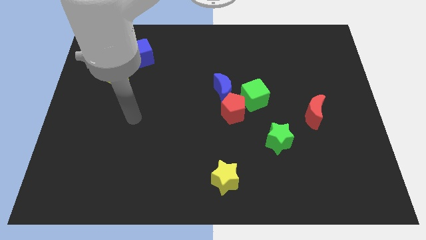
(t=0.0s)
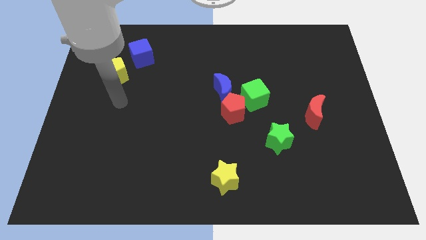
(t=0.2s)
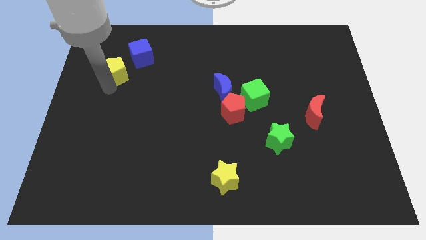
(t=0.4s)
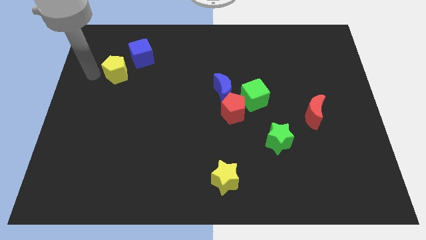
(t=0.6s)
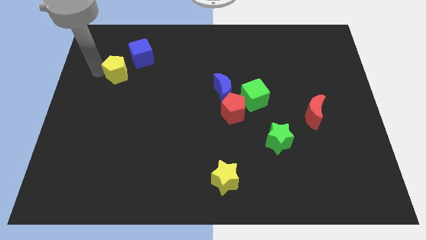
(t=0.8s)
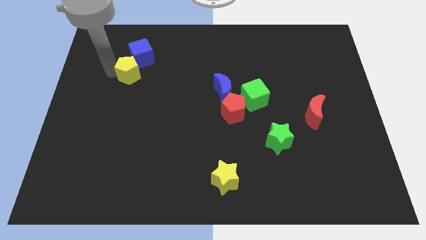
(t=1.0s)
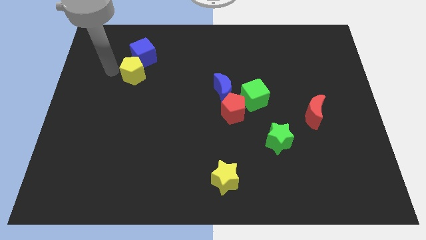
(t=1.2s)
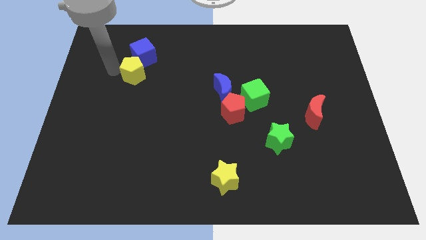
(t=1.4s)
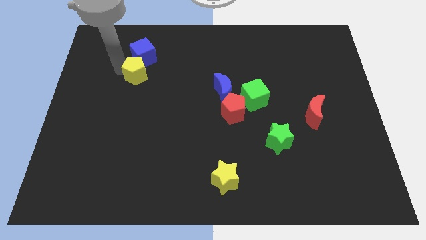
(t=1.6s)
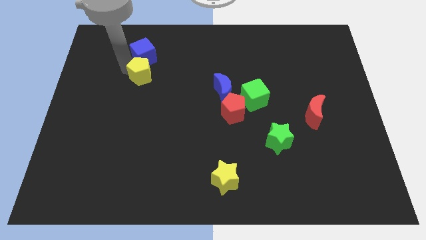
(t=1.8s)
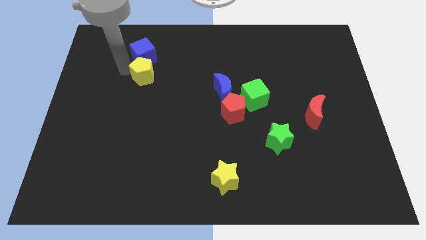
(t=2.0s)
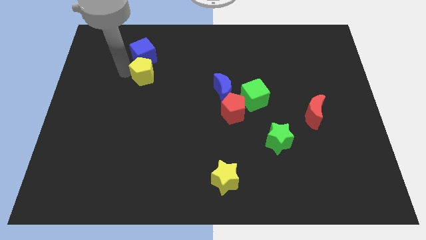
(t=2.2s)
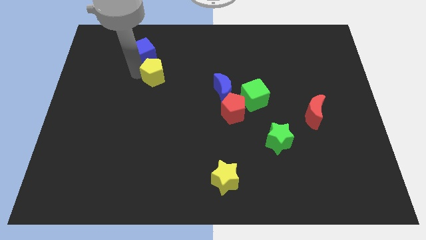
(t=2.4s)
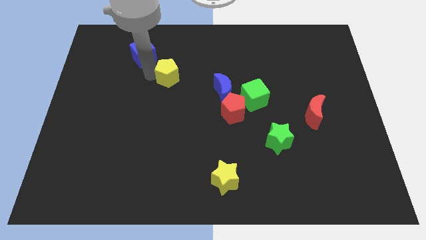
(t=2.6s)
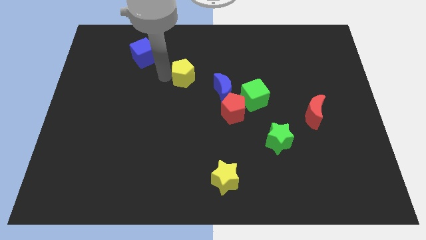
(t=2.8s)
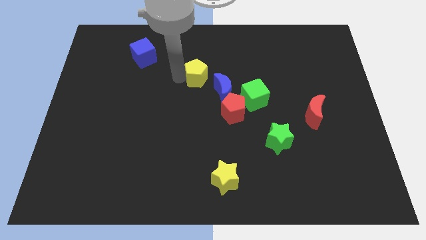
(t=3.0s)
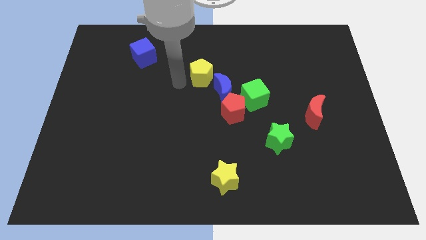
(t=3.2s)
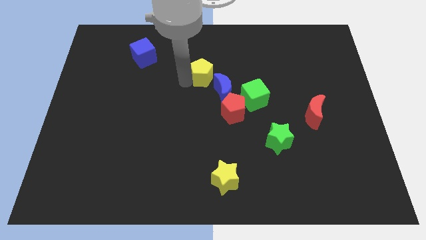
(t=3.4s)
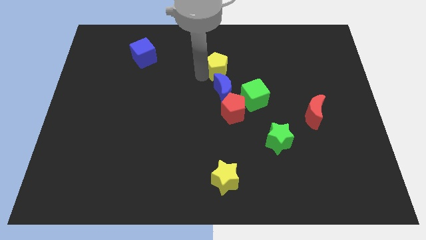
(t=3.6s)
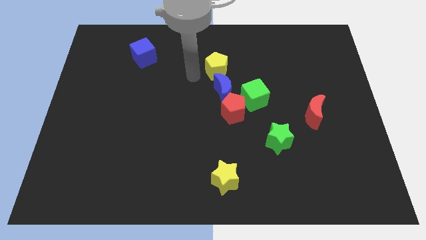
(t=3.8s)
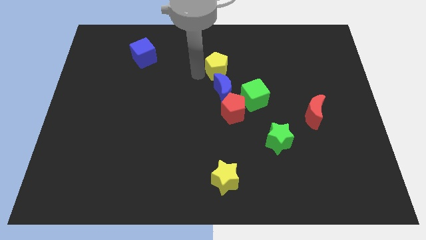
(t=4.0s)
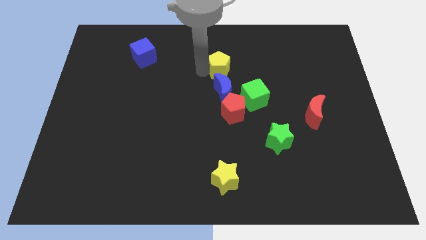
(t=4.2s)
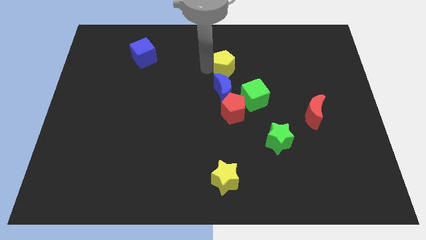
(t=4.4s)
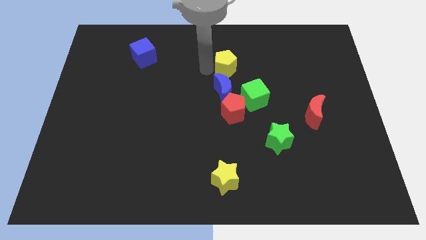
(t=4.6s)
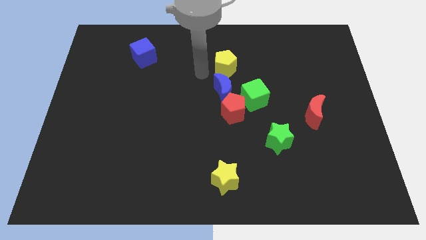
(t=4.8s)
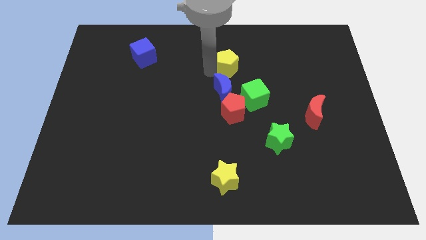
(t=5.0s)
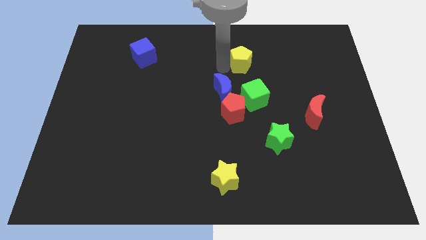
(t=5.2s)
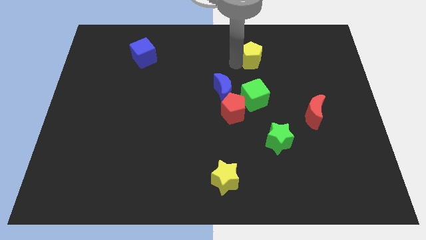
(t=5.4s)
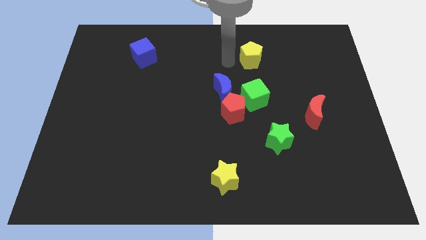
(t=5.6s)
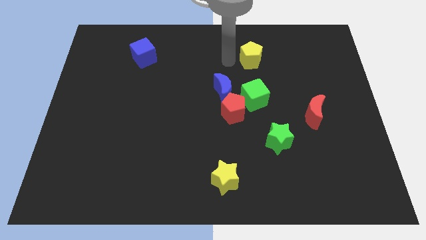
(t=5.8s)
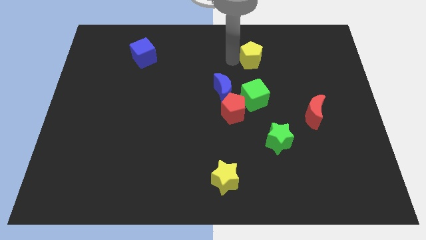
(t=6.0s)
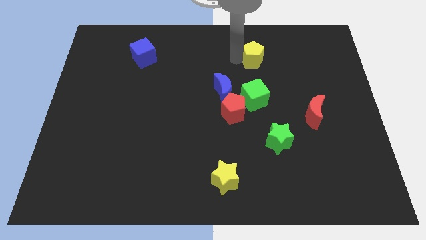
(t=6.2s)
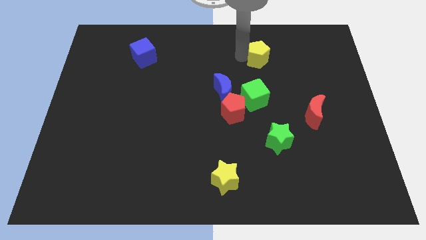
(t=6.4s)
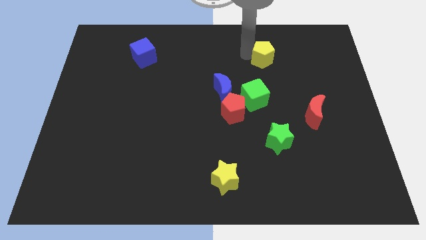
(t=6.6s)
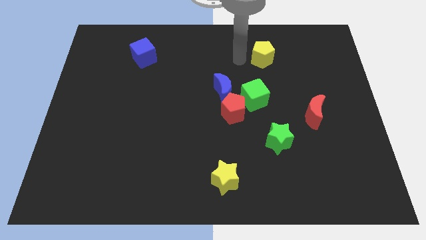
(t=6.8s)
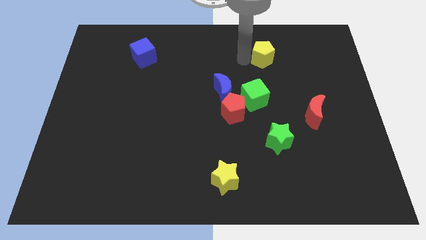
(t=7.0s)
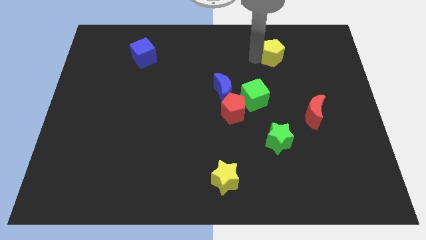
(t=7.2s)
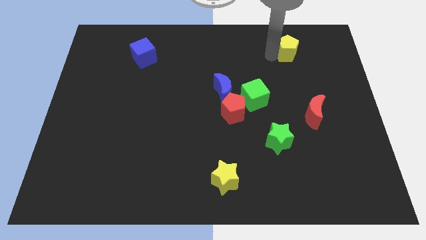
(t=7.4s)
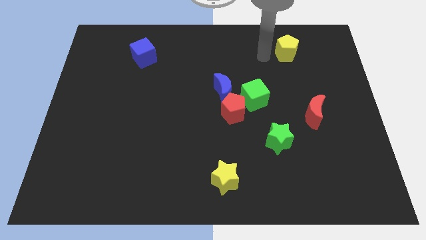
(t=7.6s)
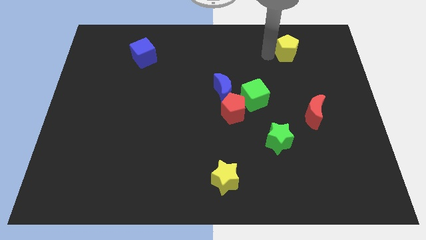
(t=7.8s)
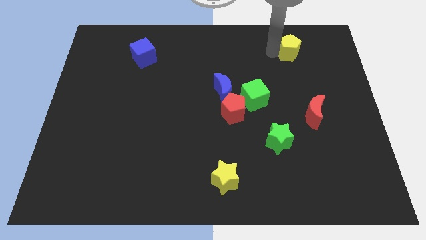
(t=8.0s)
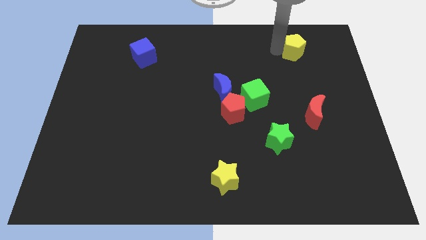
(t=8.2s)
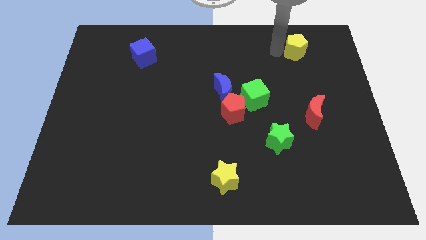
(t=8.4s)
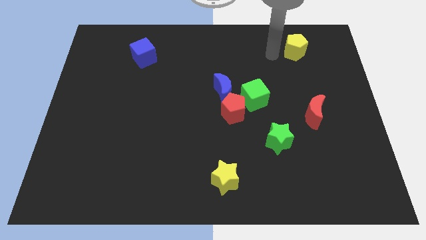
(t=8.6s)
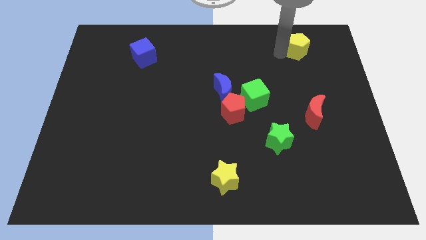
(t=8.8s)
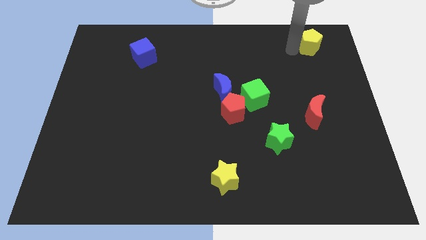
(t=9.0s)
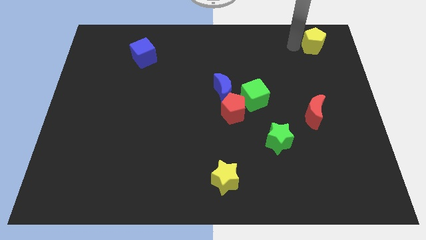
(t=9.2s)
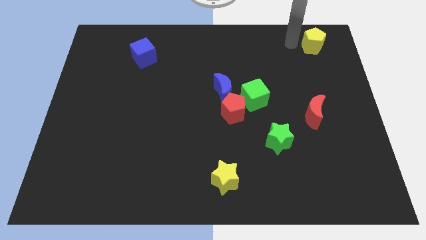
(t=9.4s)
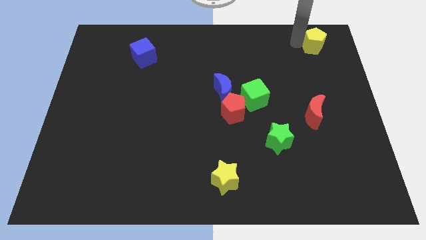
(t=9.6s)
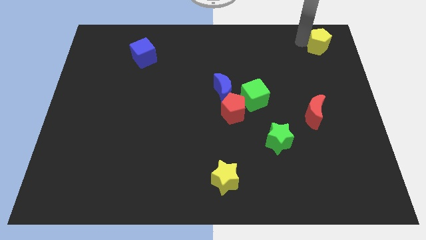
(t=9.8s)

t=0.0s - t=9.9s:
slide the yellow pentagon to the top right corner

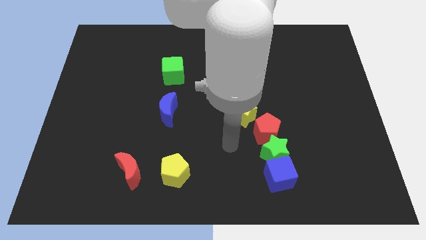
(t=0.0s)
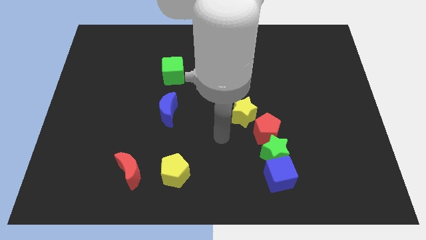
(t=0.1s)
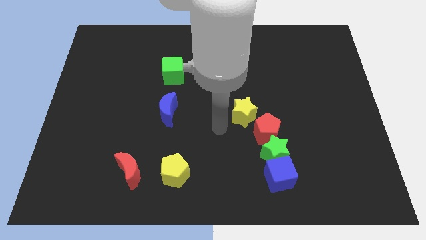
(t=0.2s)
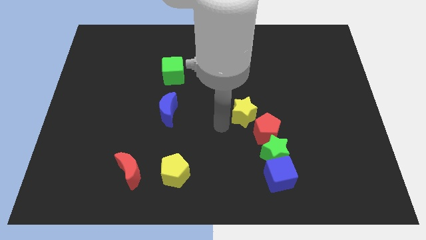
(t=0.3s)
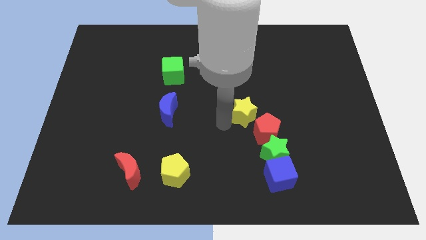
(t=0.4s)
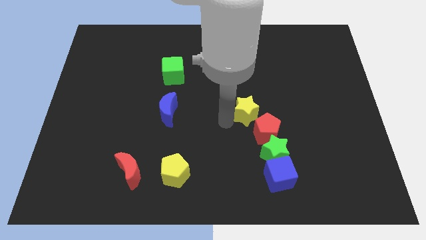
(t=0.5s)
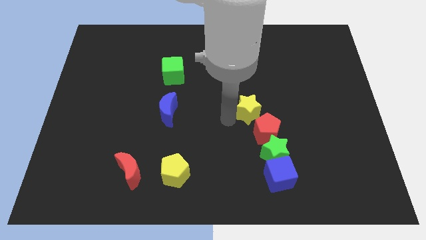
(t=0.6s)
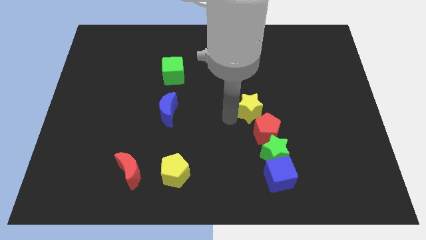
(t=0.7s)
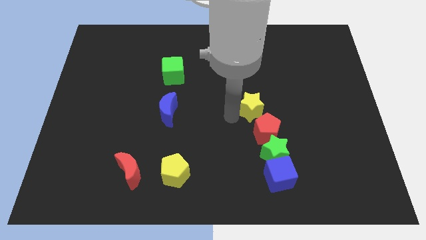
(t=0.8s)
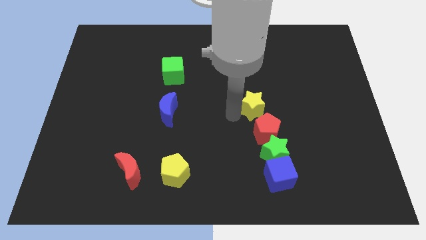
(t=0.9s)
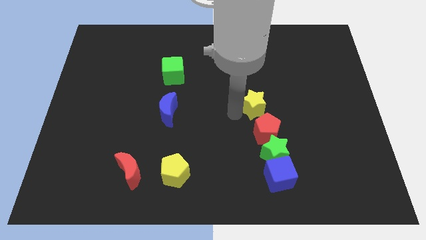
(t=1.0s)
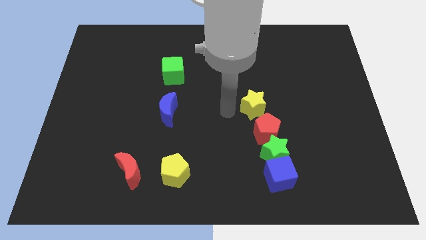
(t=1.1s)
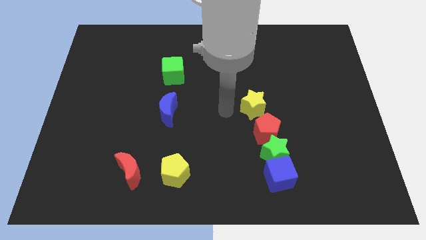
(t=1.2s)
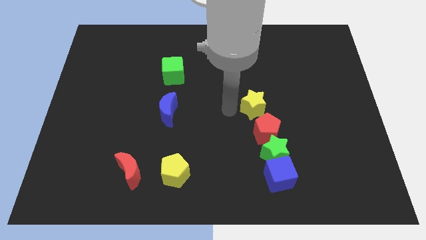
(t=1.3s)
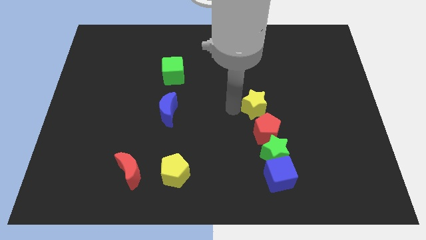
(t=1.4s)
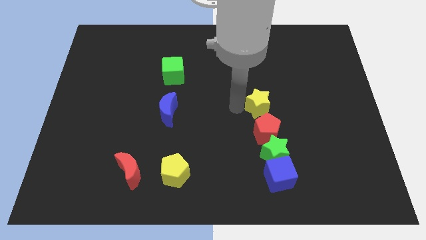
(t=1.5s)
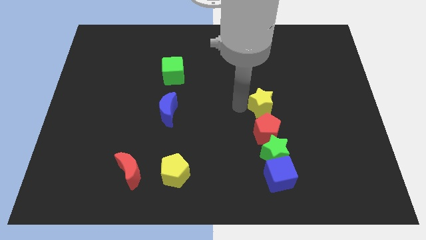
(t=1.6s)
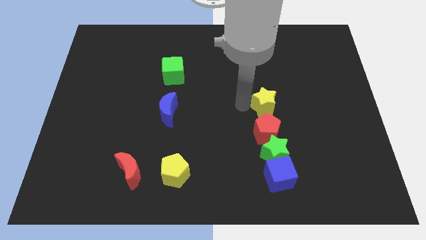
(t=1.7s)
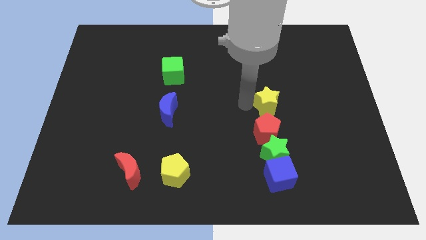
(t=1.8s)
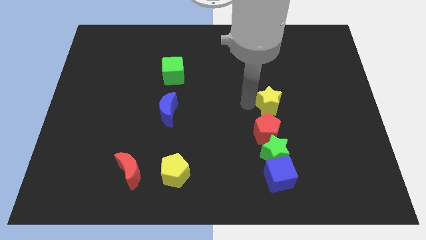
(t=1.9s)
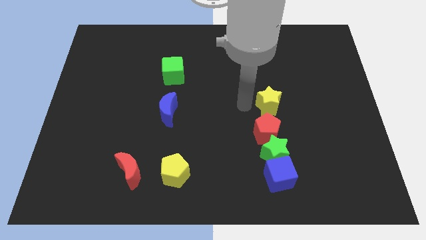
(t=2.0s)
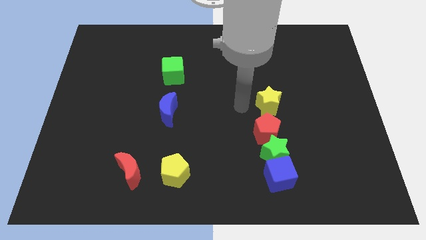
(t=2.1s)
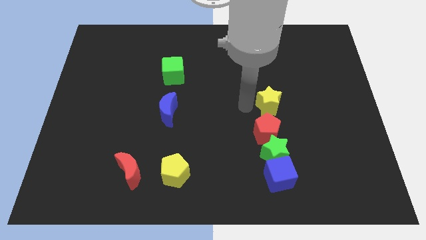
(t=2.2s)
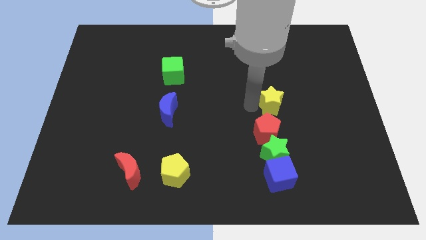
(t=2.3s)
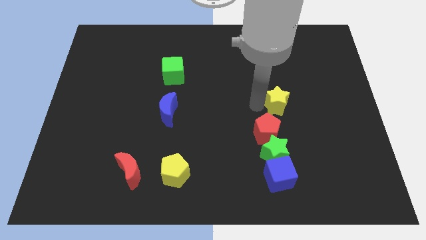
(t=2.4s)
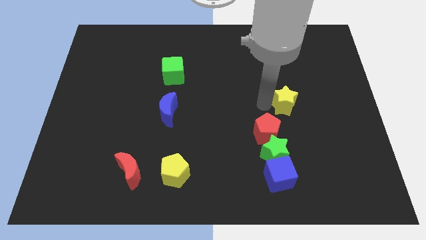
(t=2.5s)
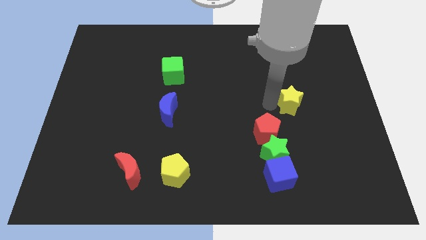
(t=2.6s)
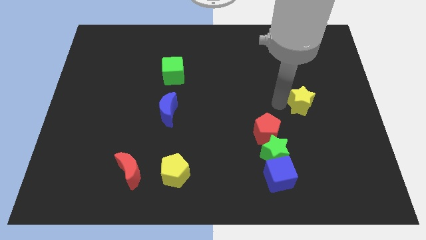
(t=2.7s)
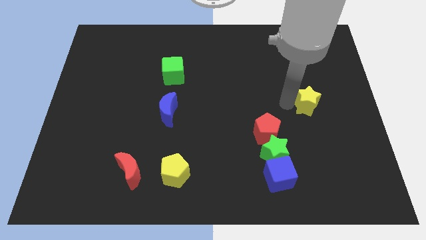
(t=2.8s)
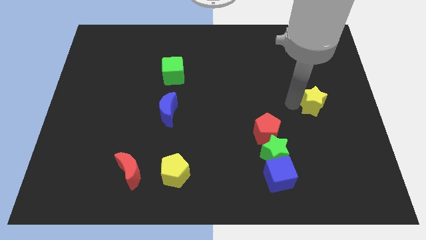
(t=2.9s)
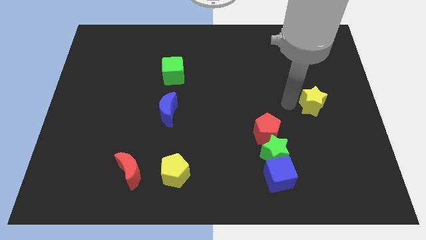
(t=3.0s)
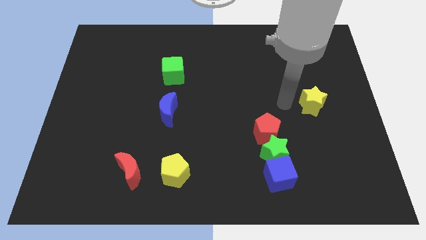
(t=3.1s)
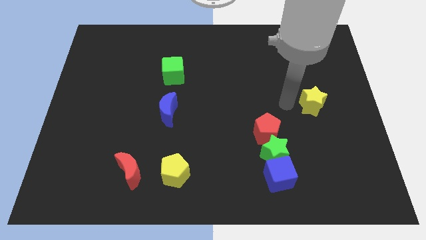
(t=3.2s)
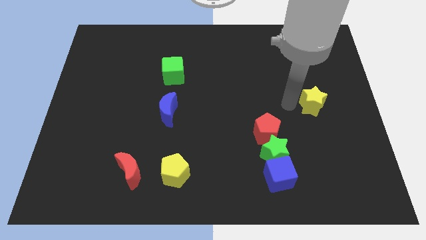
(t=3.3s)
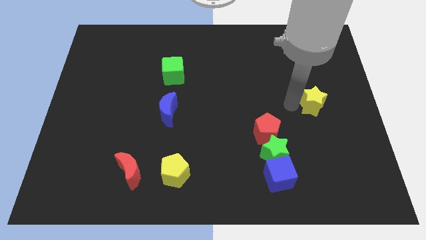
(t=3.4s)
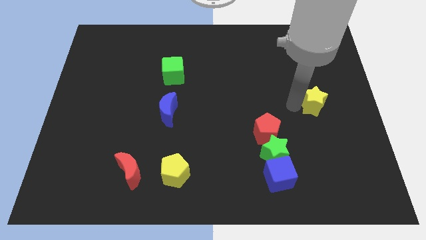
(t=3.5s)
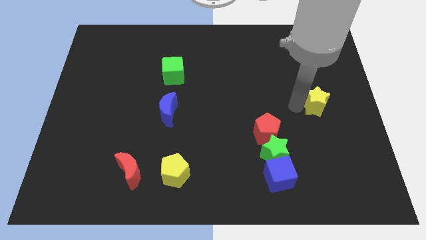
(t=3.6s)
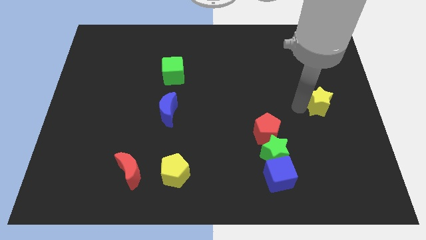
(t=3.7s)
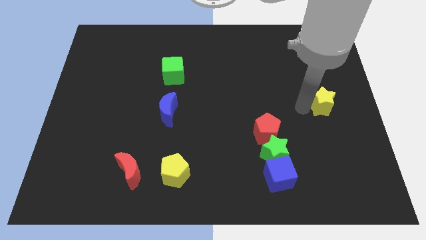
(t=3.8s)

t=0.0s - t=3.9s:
move the yellow star to the right side of the board
